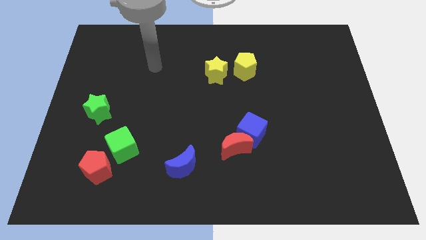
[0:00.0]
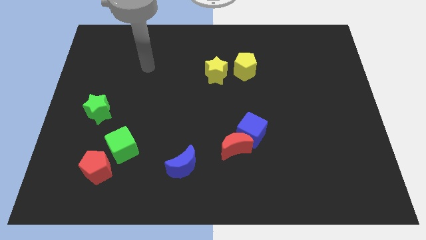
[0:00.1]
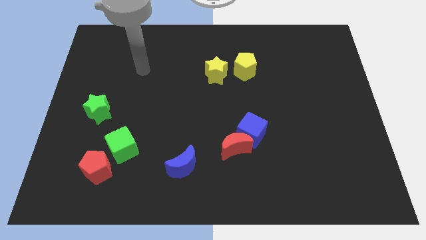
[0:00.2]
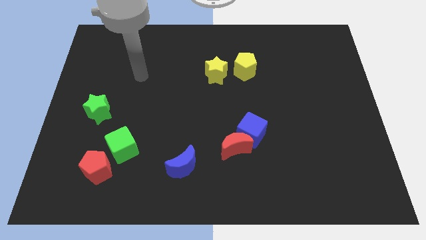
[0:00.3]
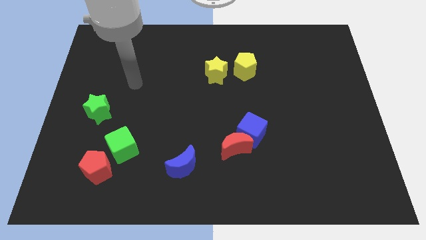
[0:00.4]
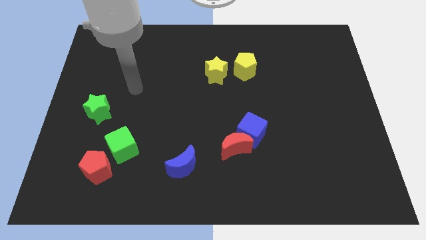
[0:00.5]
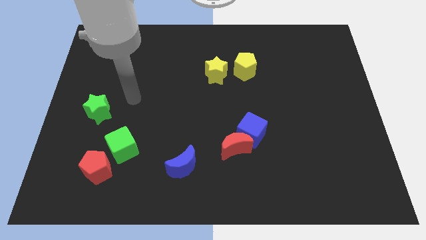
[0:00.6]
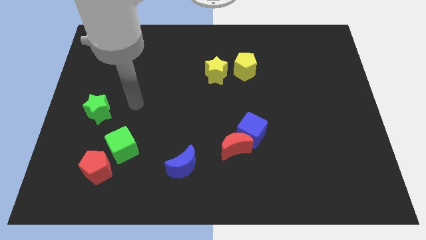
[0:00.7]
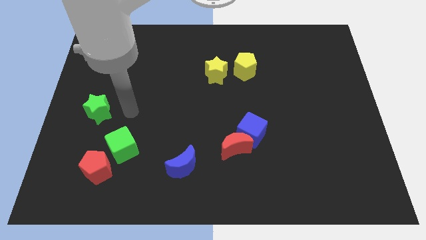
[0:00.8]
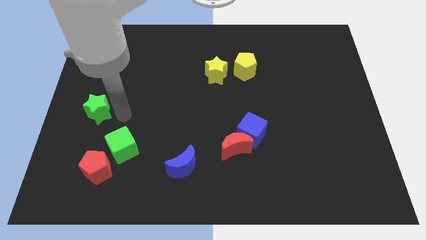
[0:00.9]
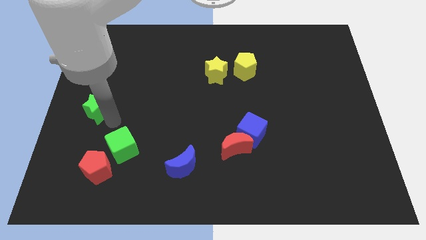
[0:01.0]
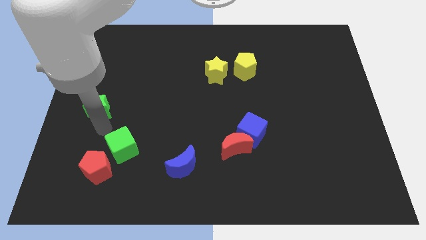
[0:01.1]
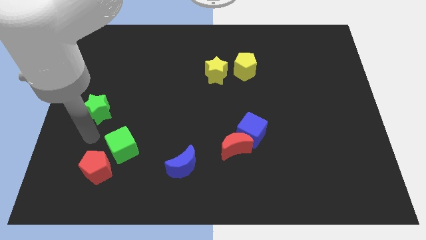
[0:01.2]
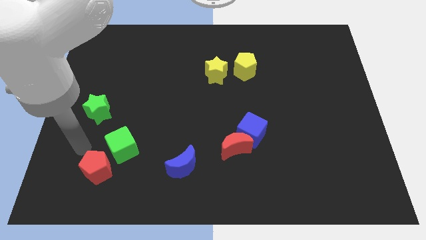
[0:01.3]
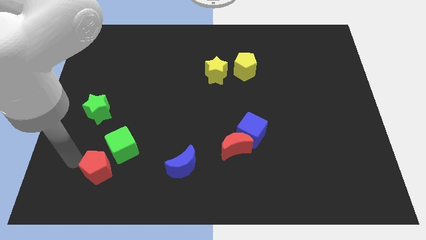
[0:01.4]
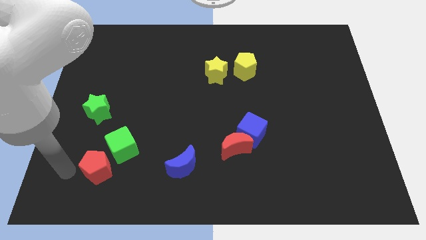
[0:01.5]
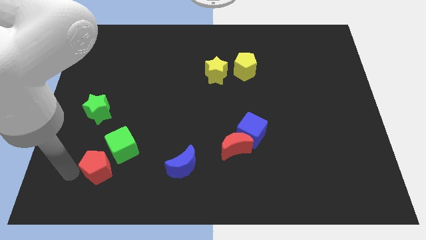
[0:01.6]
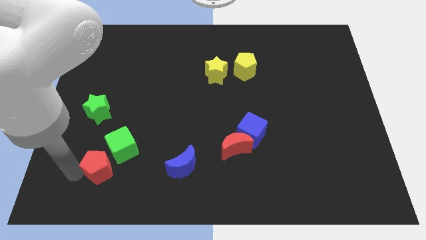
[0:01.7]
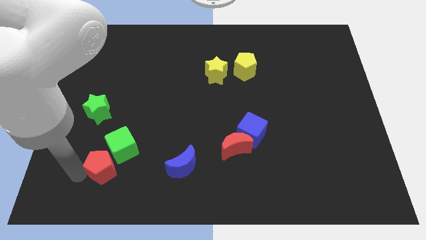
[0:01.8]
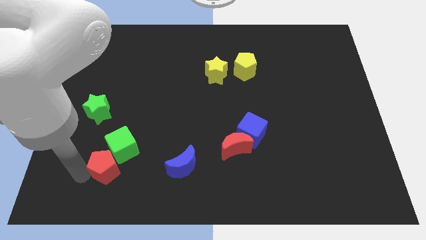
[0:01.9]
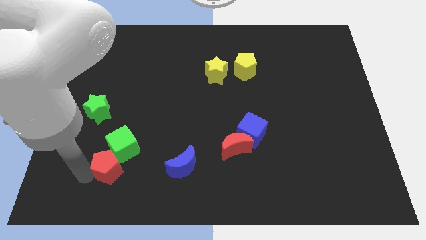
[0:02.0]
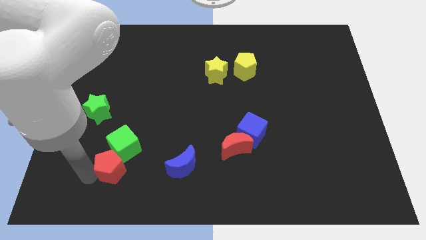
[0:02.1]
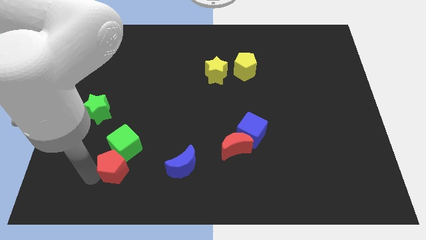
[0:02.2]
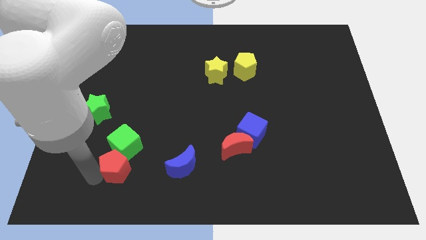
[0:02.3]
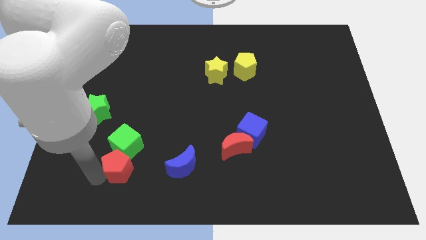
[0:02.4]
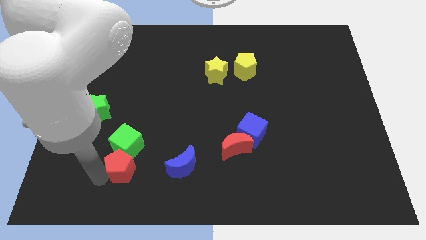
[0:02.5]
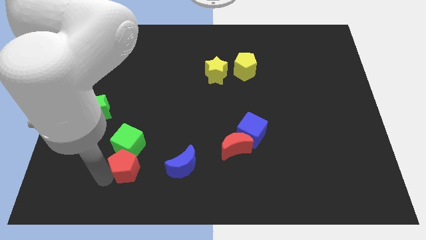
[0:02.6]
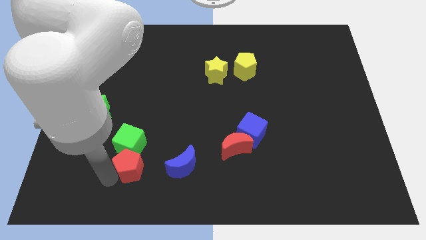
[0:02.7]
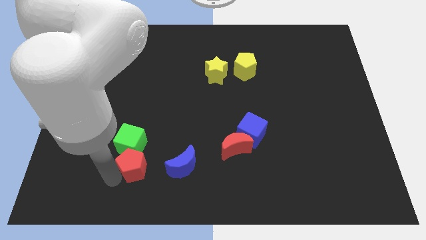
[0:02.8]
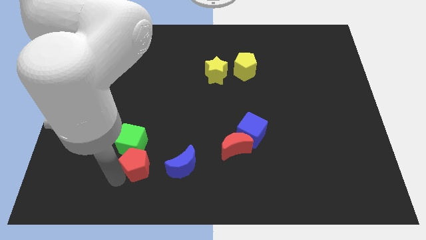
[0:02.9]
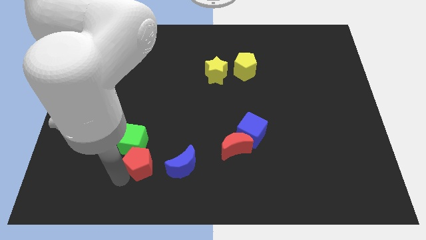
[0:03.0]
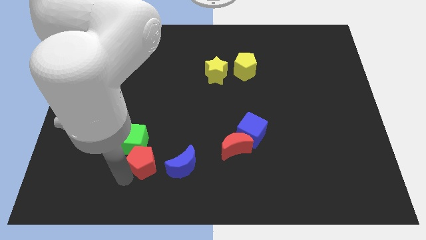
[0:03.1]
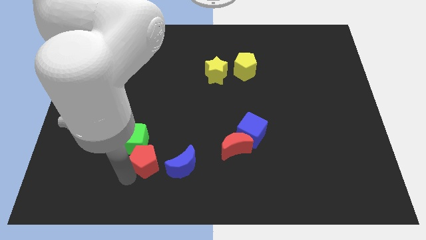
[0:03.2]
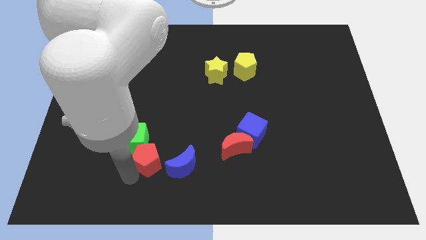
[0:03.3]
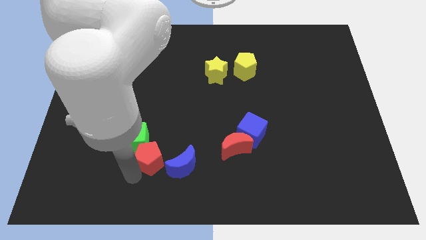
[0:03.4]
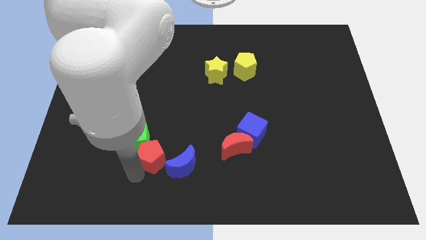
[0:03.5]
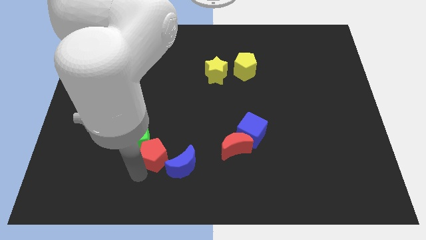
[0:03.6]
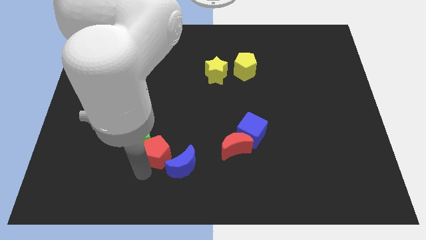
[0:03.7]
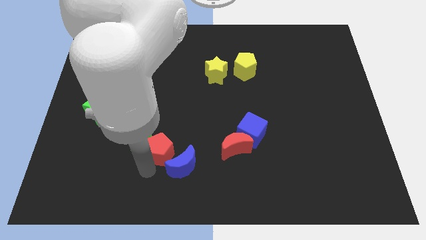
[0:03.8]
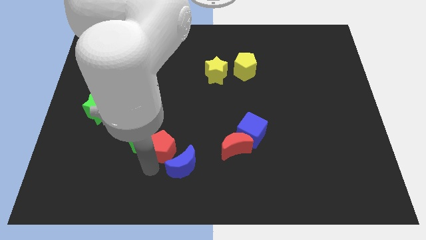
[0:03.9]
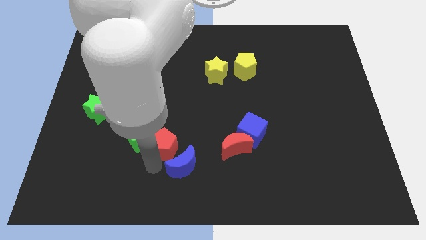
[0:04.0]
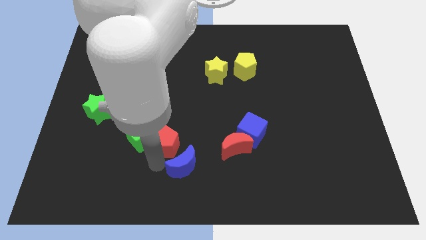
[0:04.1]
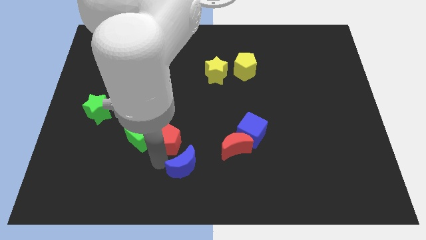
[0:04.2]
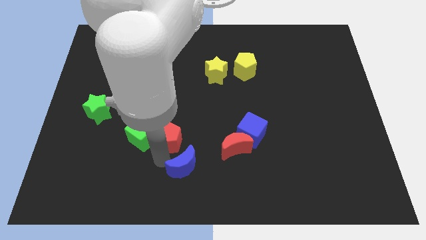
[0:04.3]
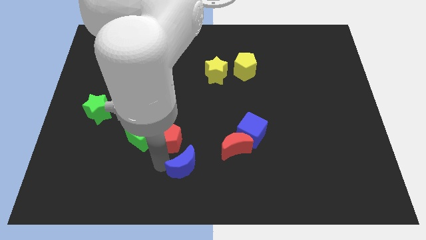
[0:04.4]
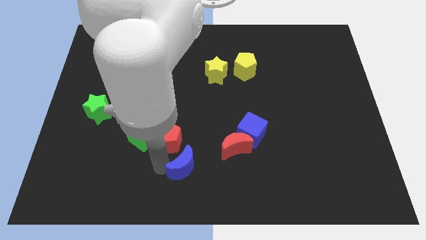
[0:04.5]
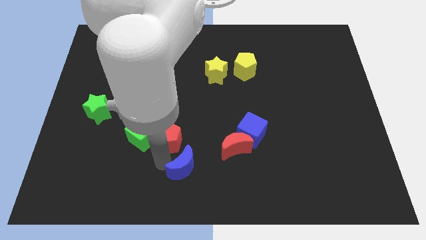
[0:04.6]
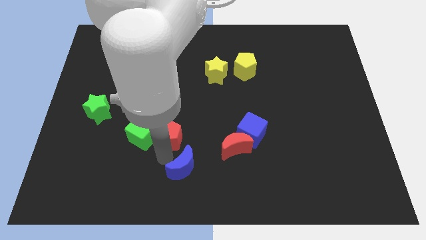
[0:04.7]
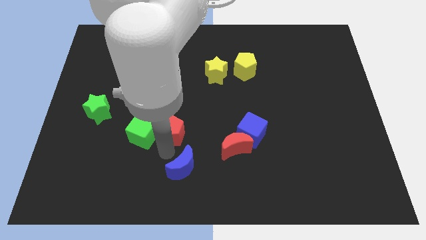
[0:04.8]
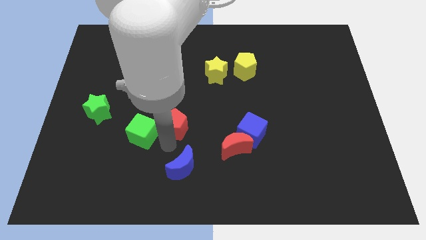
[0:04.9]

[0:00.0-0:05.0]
put the red pentagon to the center of the board

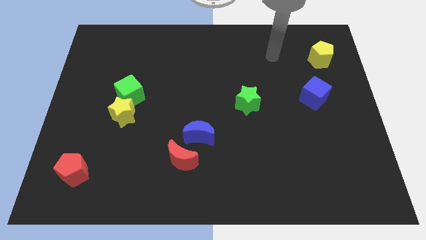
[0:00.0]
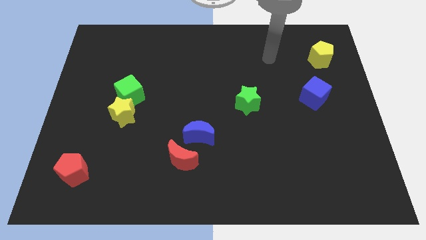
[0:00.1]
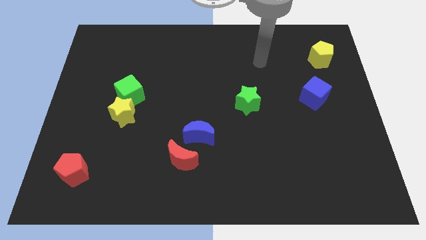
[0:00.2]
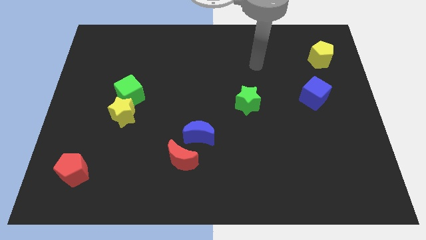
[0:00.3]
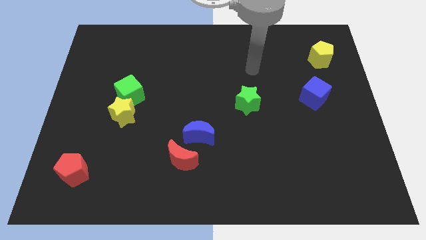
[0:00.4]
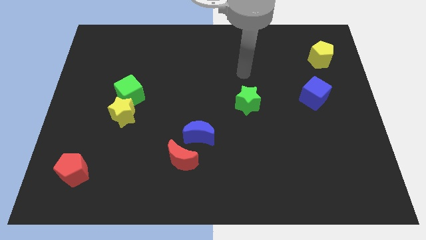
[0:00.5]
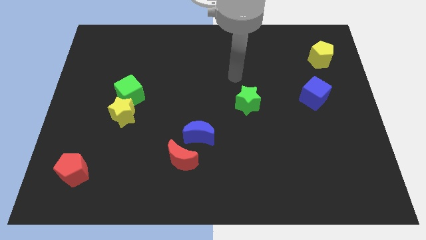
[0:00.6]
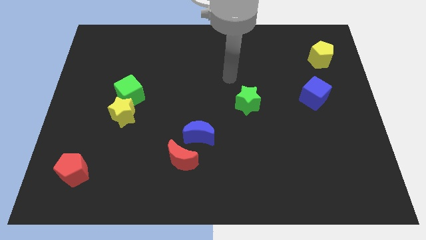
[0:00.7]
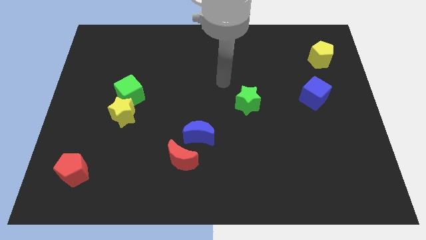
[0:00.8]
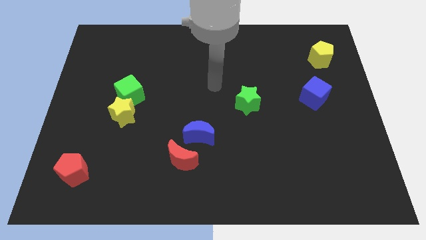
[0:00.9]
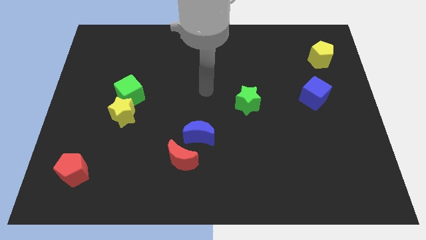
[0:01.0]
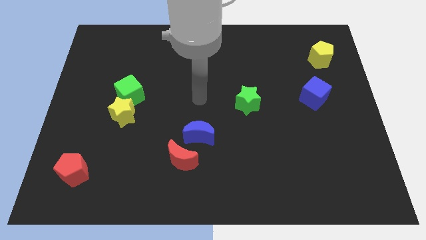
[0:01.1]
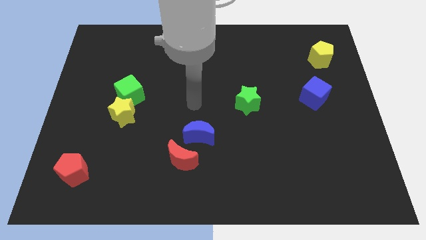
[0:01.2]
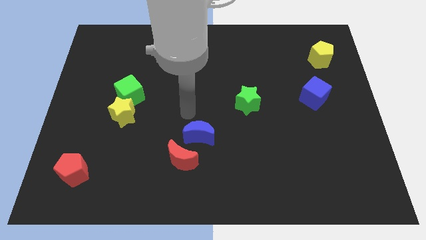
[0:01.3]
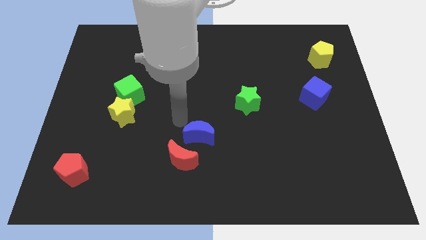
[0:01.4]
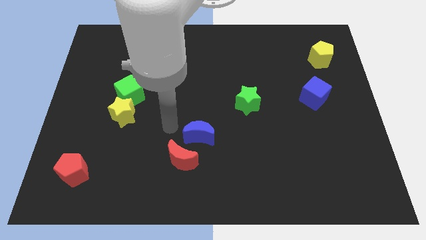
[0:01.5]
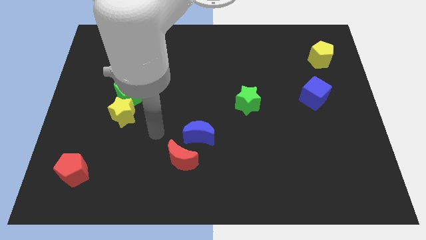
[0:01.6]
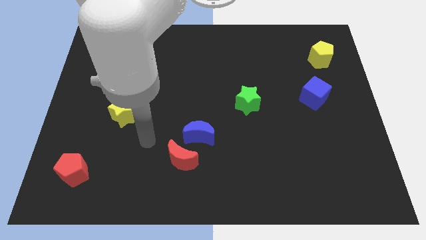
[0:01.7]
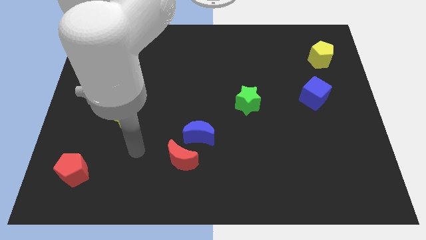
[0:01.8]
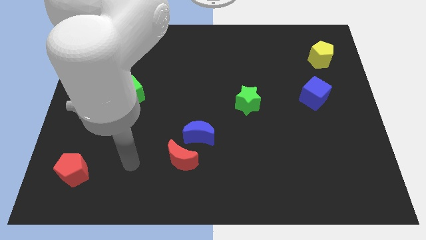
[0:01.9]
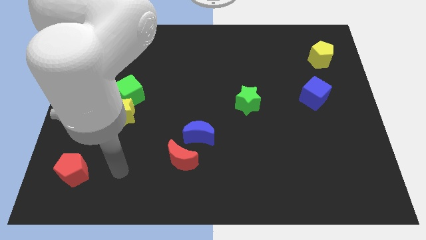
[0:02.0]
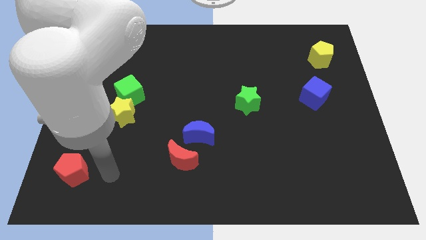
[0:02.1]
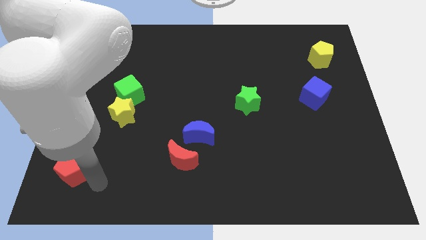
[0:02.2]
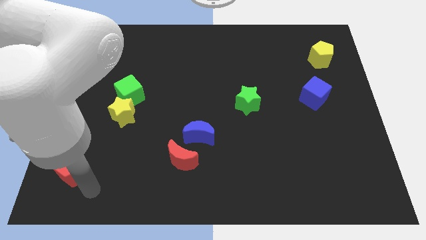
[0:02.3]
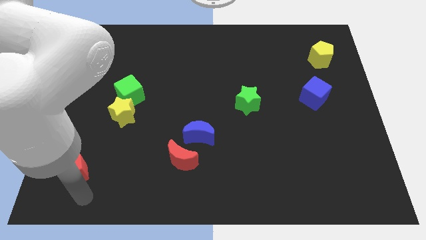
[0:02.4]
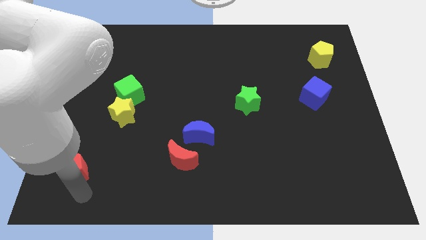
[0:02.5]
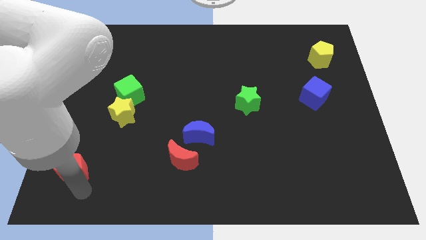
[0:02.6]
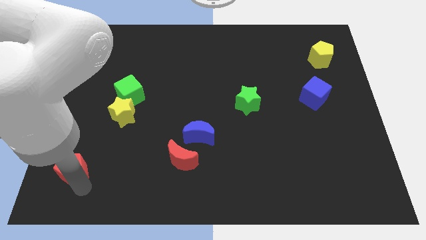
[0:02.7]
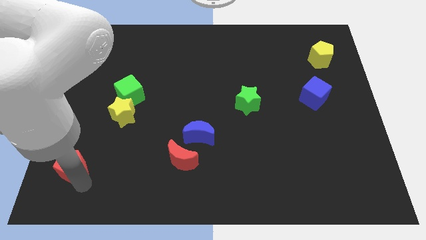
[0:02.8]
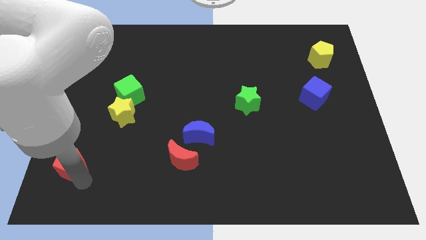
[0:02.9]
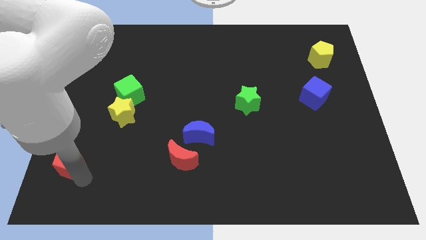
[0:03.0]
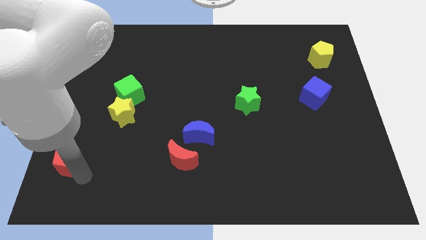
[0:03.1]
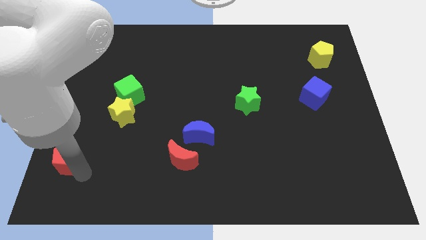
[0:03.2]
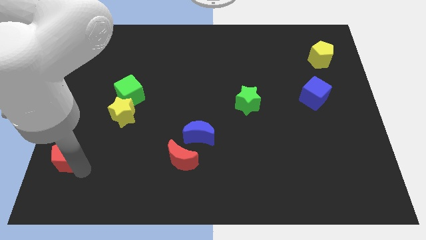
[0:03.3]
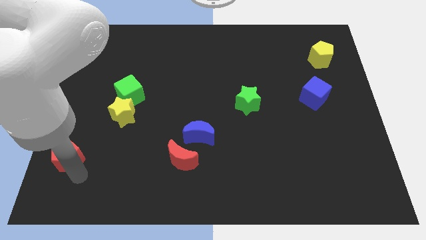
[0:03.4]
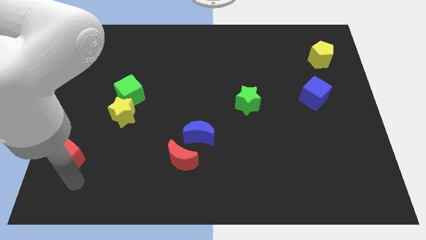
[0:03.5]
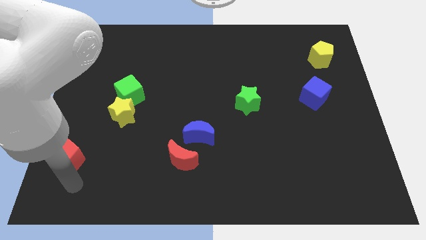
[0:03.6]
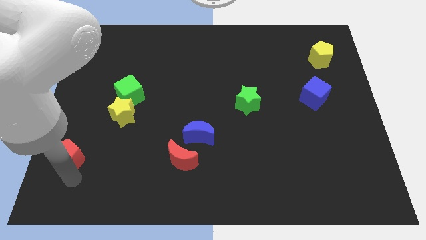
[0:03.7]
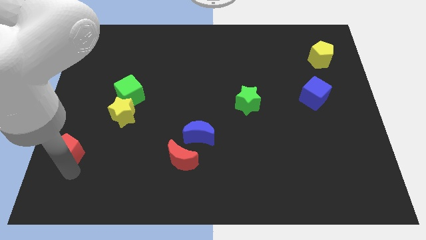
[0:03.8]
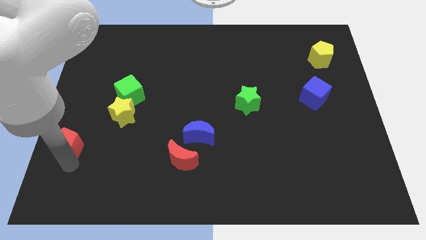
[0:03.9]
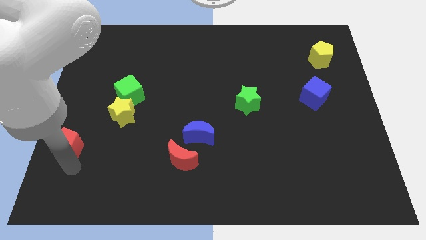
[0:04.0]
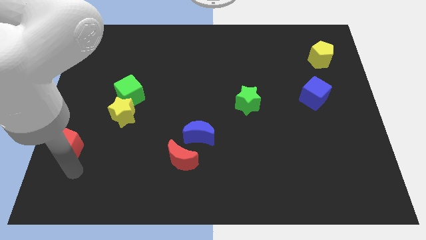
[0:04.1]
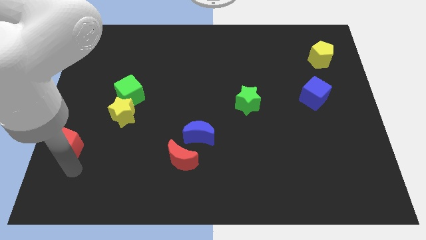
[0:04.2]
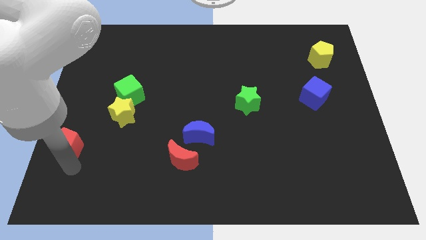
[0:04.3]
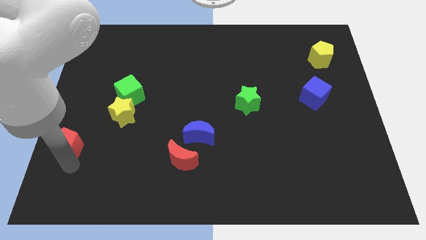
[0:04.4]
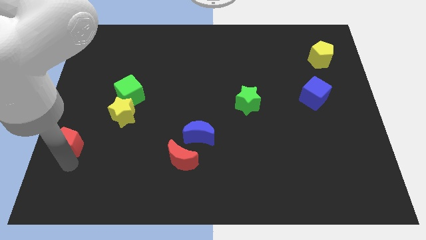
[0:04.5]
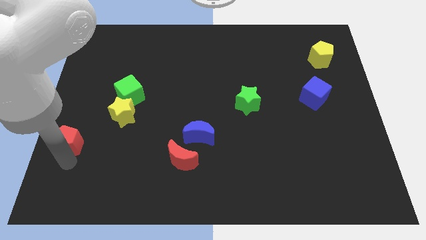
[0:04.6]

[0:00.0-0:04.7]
put the red pentagon to the center left
